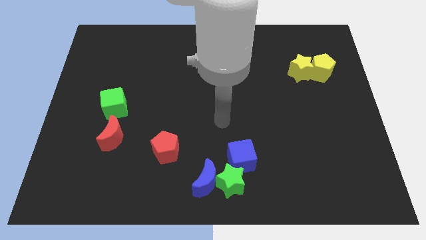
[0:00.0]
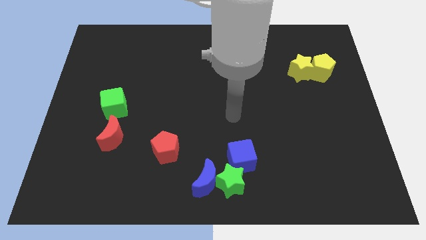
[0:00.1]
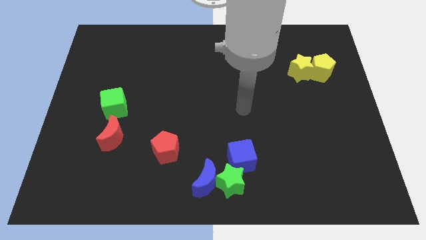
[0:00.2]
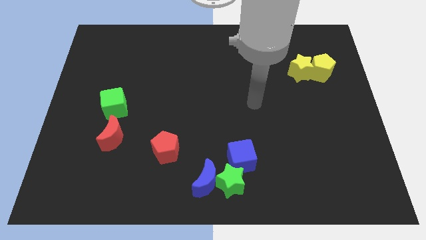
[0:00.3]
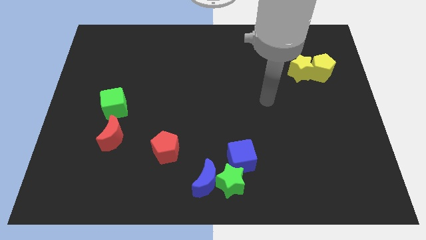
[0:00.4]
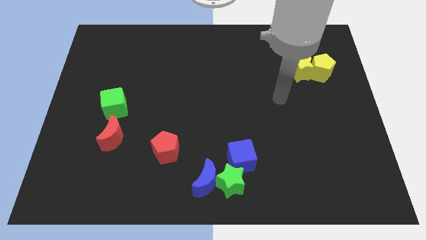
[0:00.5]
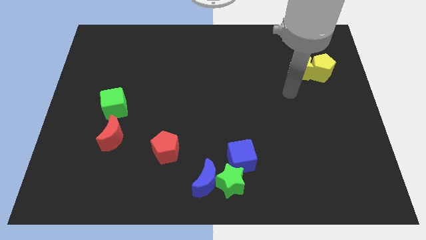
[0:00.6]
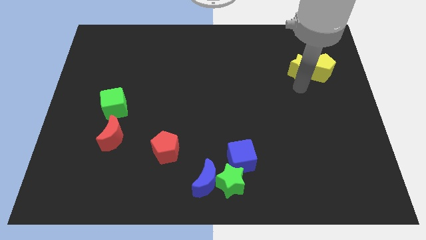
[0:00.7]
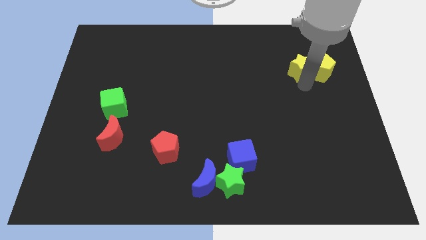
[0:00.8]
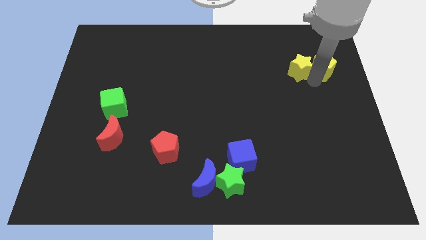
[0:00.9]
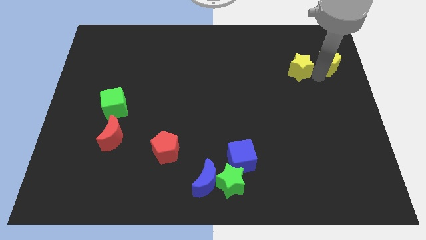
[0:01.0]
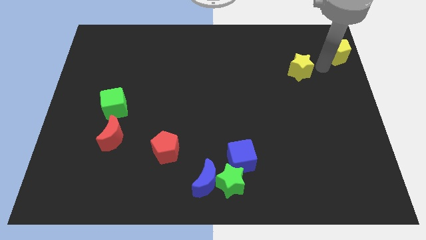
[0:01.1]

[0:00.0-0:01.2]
pull the yellow star apart from the yellow pentagon

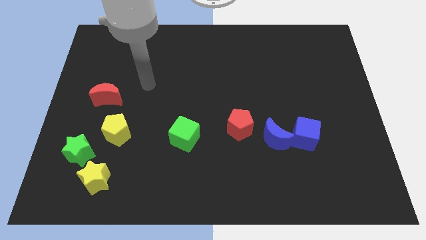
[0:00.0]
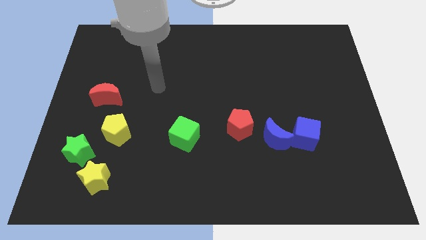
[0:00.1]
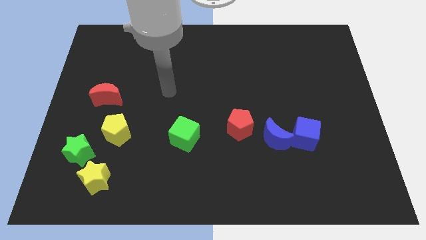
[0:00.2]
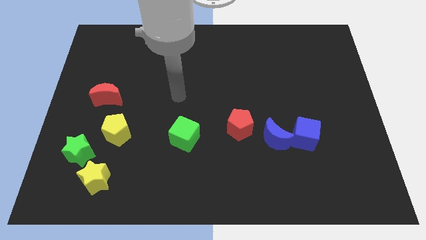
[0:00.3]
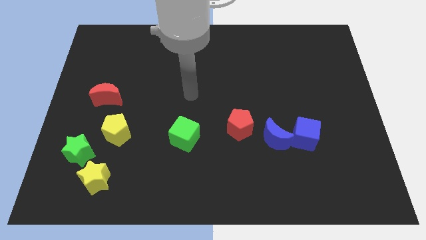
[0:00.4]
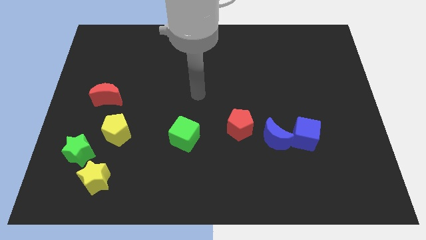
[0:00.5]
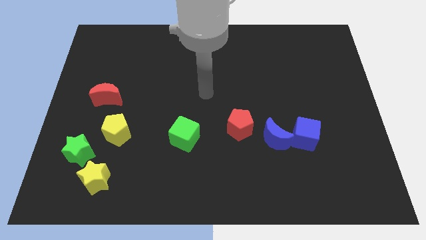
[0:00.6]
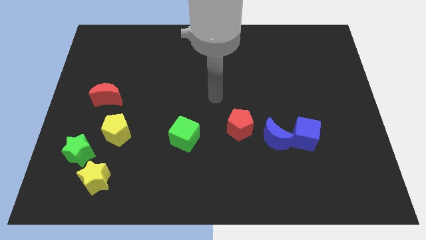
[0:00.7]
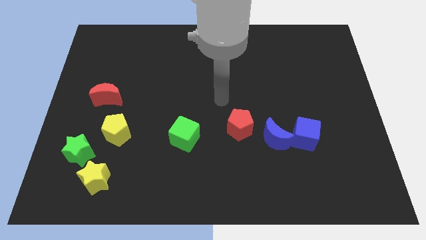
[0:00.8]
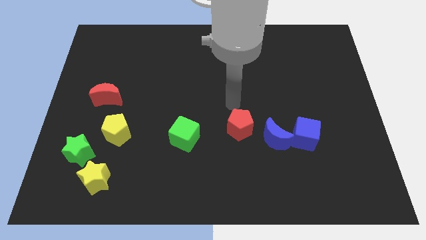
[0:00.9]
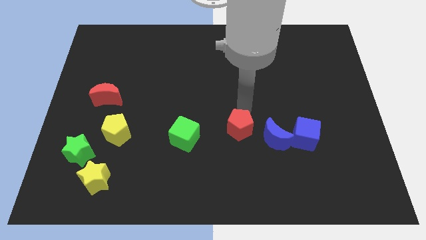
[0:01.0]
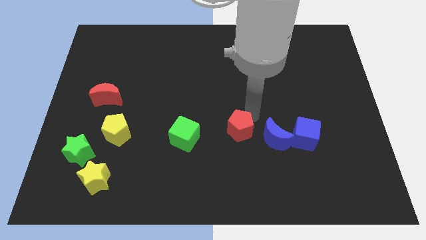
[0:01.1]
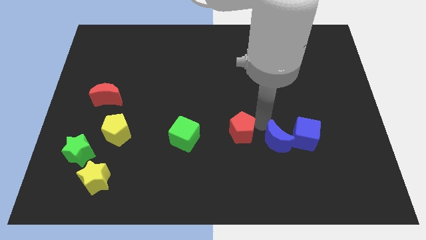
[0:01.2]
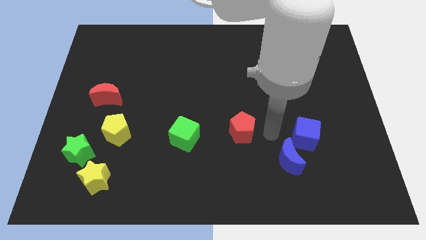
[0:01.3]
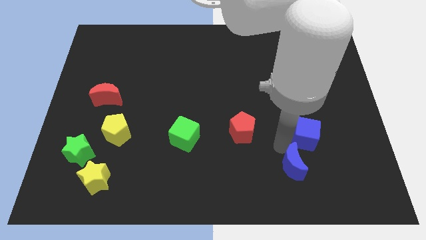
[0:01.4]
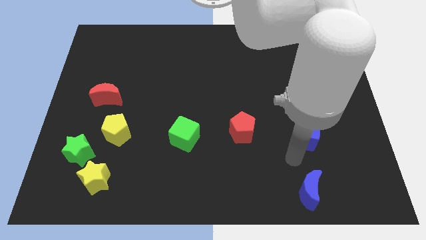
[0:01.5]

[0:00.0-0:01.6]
pull the blue cube apart from the blue moon

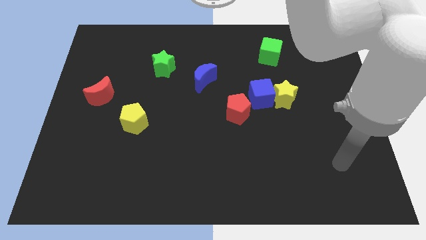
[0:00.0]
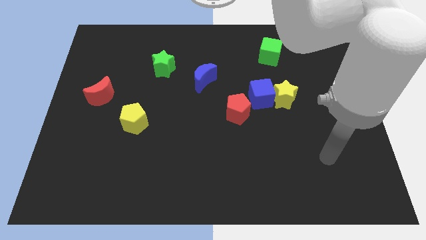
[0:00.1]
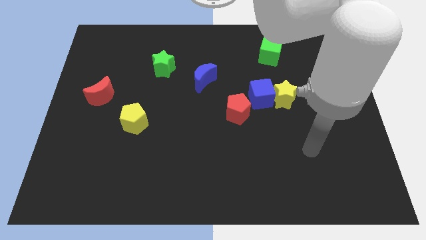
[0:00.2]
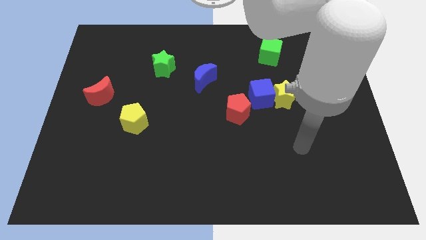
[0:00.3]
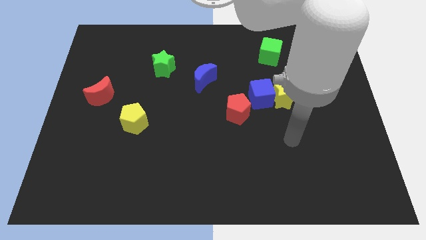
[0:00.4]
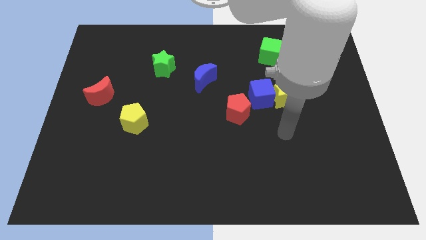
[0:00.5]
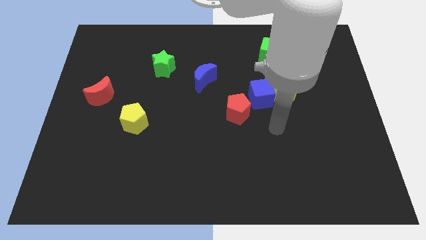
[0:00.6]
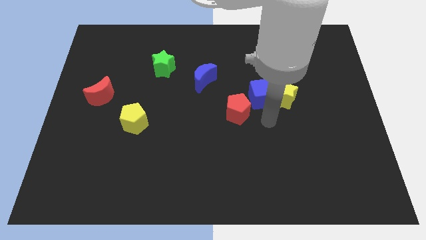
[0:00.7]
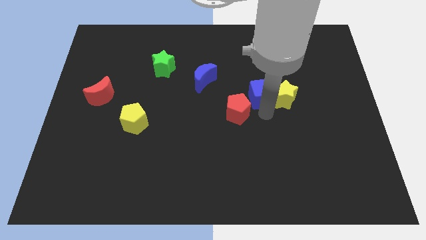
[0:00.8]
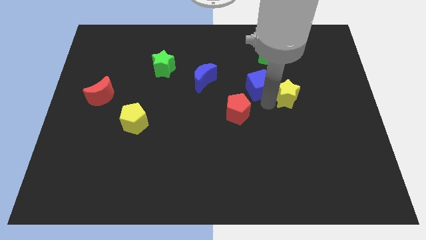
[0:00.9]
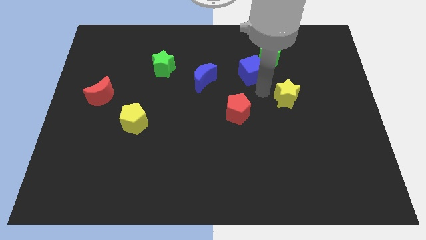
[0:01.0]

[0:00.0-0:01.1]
separate the yellow star from the blue cube

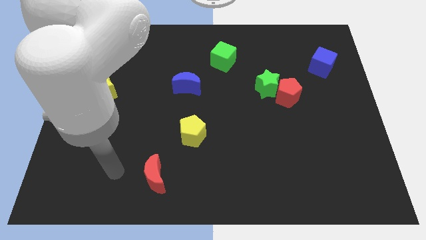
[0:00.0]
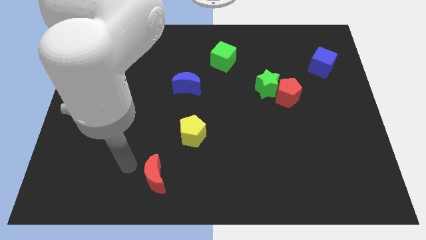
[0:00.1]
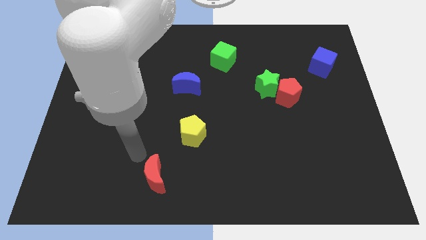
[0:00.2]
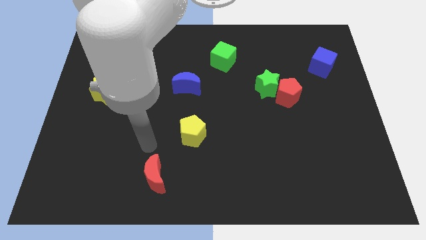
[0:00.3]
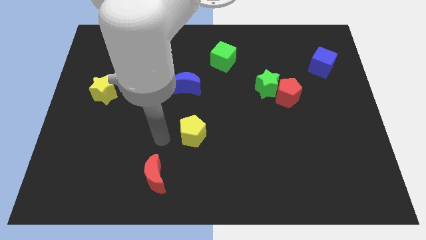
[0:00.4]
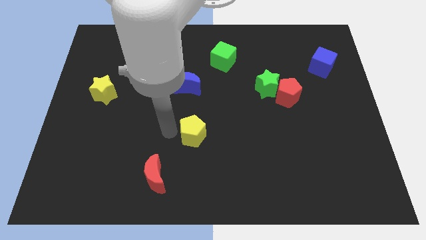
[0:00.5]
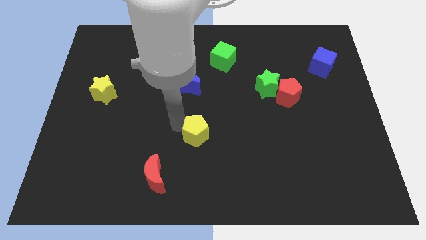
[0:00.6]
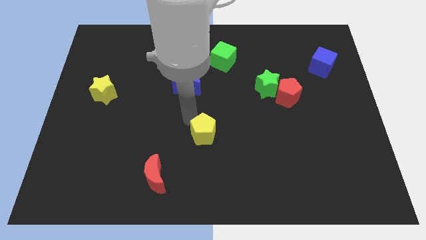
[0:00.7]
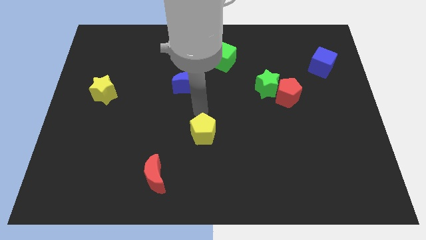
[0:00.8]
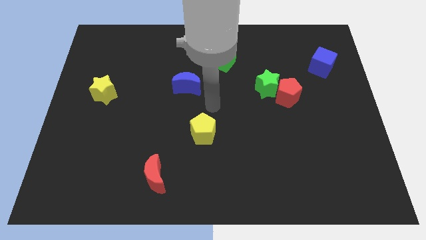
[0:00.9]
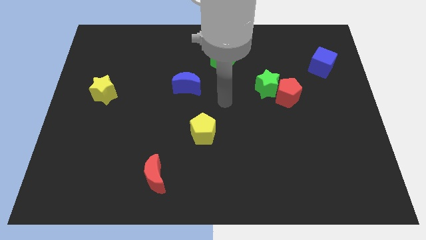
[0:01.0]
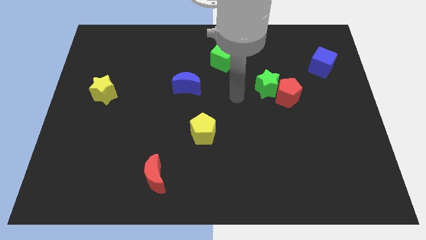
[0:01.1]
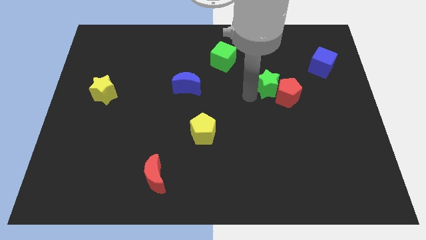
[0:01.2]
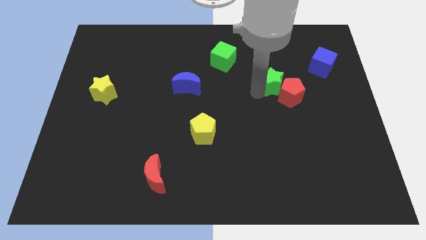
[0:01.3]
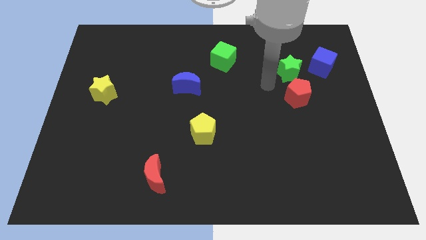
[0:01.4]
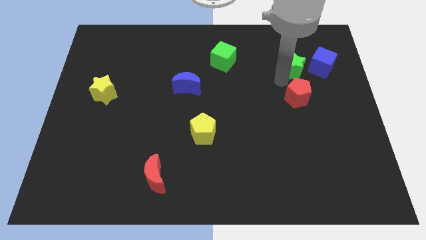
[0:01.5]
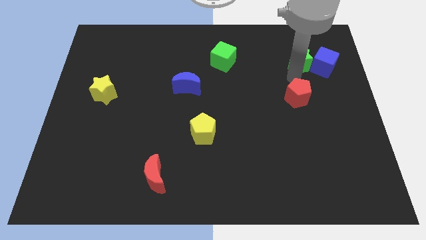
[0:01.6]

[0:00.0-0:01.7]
move the red pentagon away from the green star

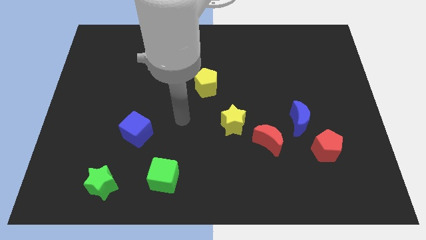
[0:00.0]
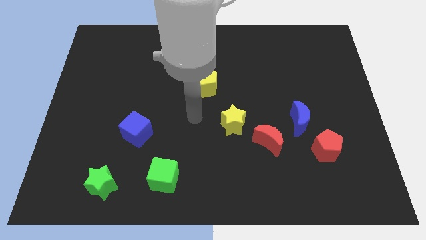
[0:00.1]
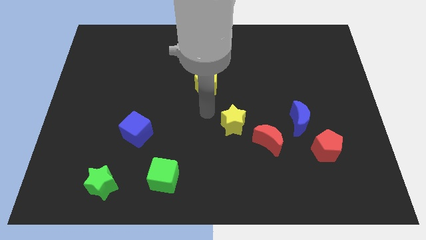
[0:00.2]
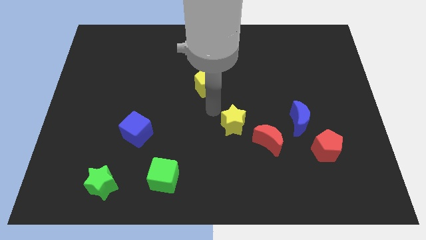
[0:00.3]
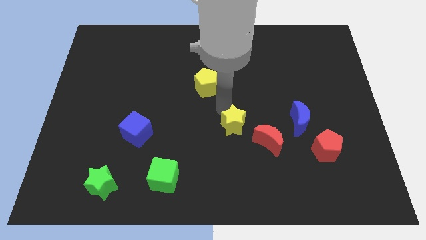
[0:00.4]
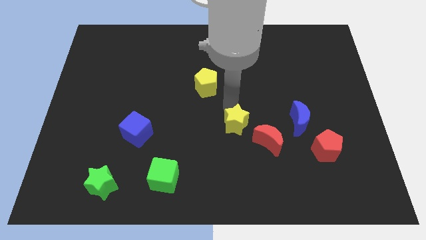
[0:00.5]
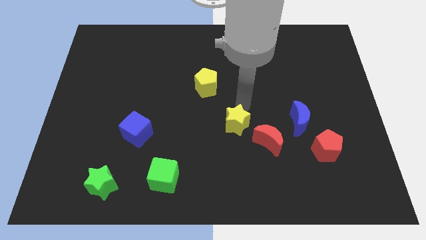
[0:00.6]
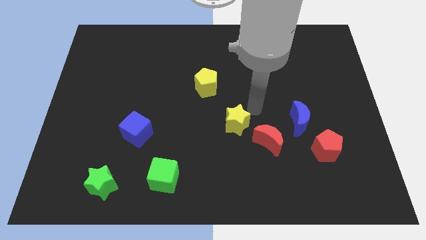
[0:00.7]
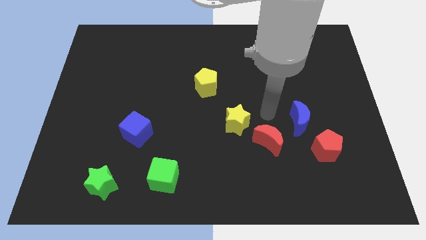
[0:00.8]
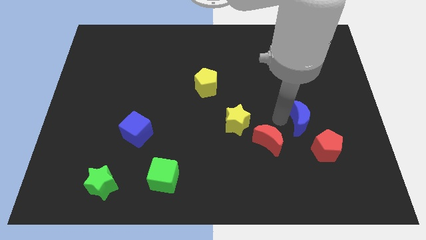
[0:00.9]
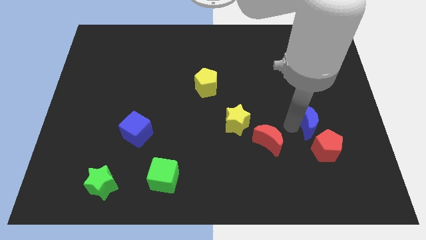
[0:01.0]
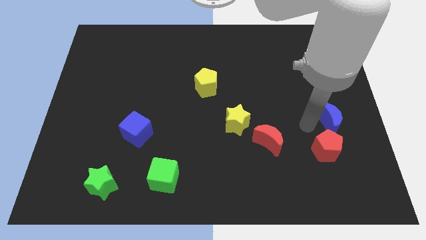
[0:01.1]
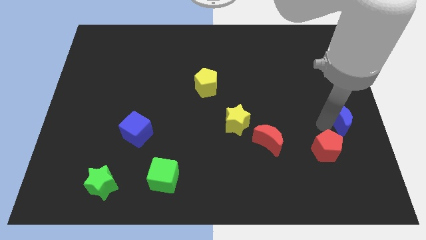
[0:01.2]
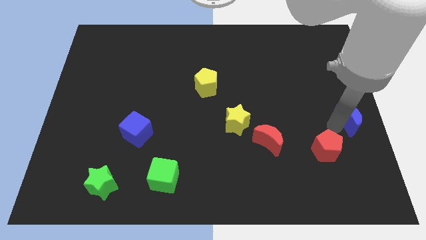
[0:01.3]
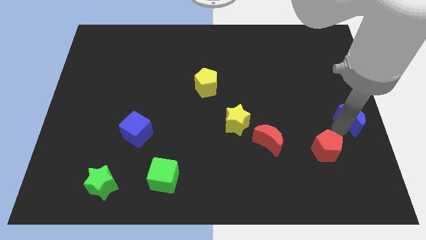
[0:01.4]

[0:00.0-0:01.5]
move the red pentagon away from the blue moon

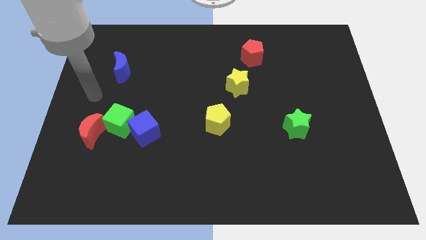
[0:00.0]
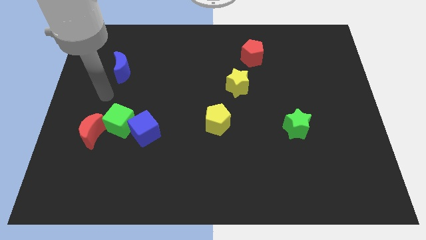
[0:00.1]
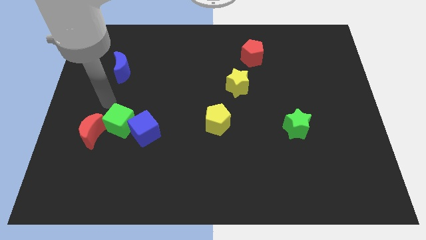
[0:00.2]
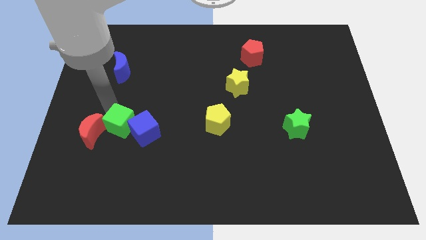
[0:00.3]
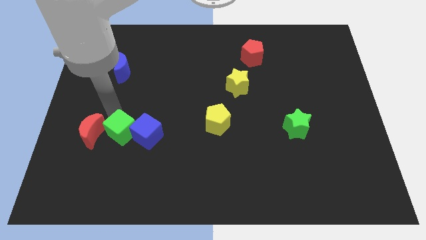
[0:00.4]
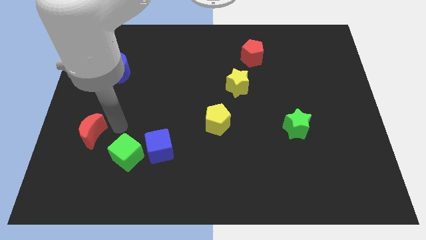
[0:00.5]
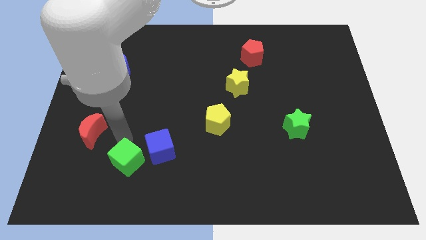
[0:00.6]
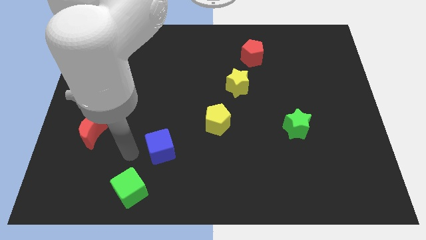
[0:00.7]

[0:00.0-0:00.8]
move the blue cube away from the green cube

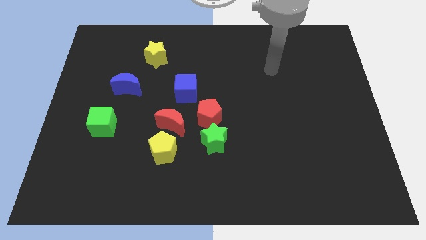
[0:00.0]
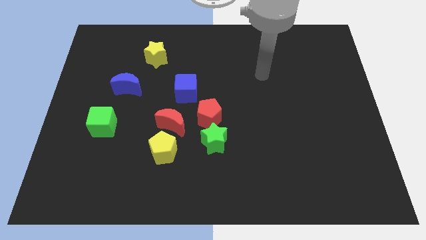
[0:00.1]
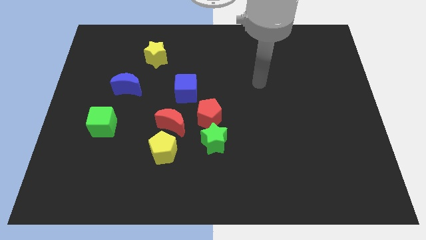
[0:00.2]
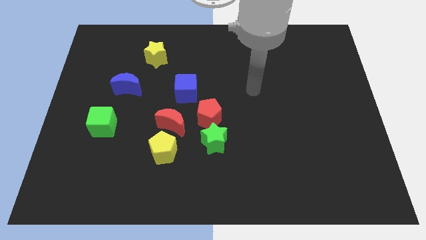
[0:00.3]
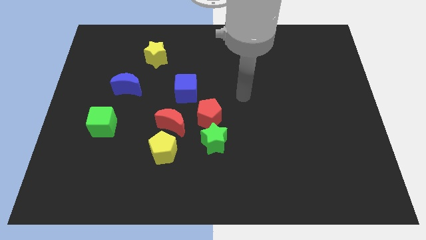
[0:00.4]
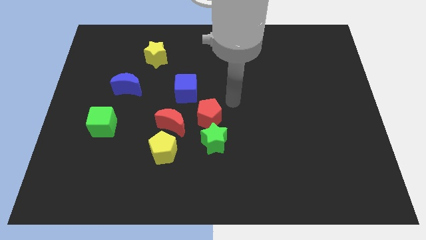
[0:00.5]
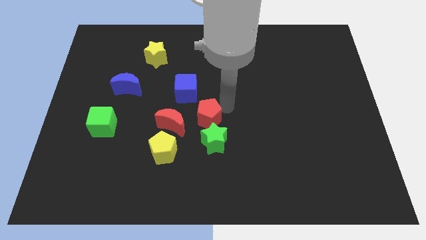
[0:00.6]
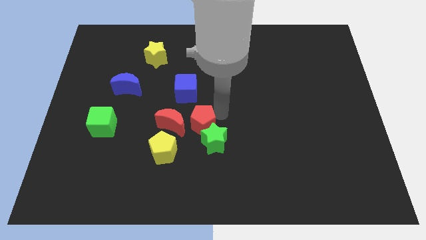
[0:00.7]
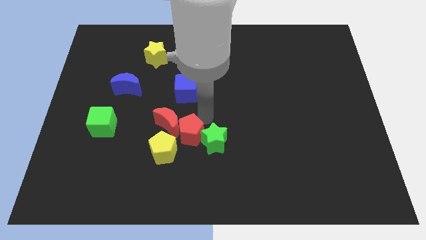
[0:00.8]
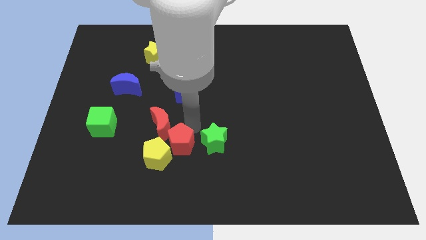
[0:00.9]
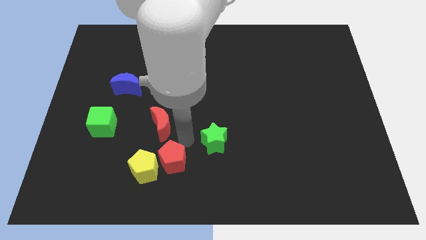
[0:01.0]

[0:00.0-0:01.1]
move the green star away from the red pentagon

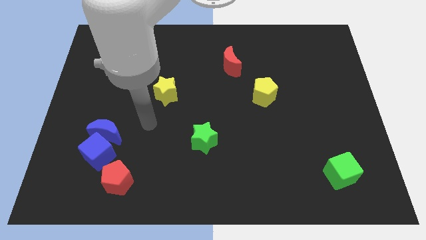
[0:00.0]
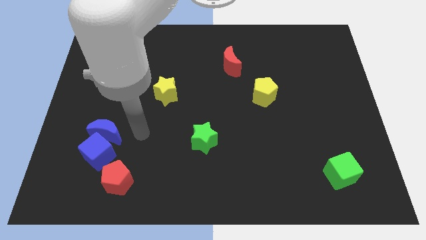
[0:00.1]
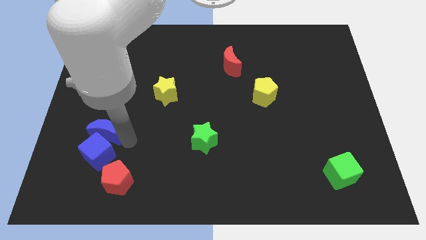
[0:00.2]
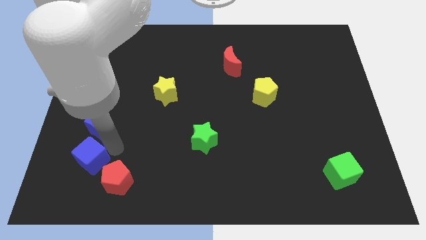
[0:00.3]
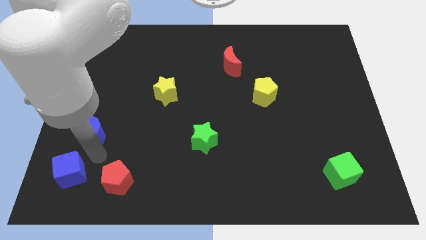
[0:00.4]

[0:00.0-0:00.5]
pull the blue moon apart from the blue cube

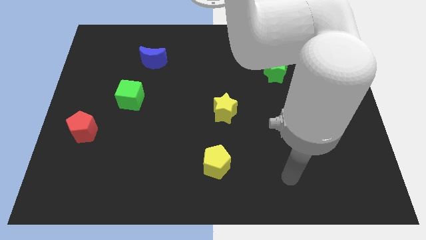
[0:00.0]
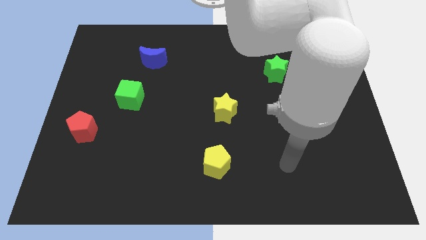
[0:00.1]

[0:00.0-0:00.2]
separate the red moon from the green star
